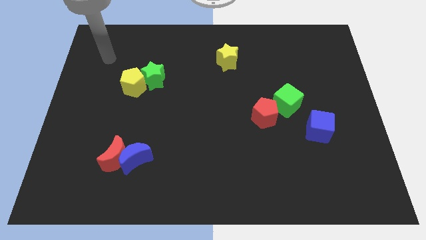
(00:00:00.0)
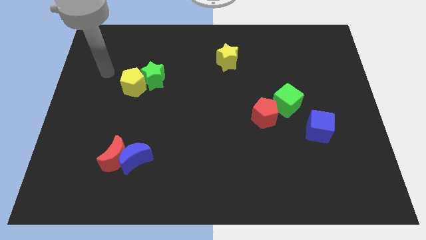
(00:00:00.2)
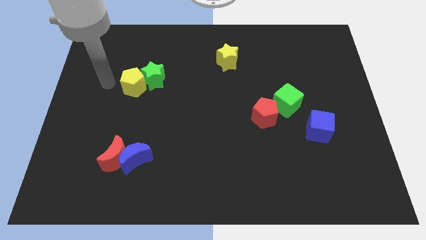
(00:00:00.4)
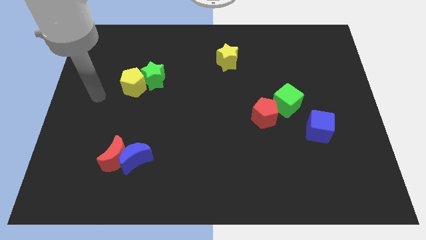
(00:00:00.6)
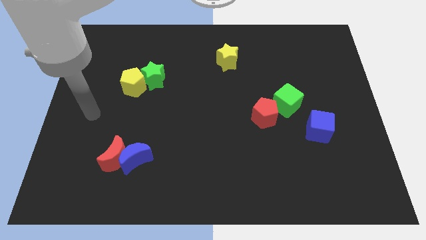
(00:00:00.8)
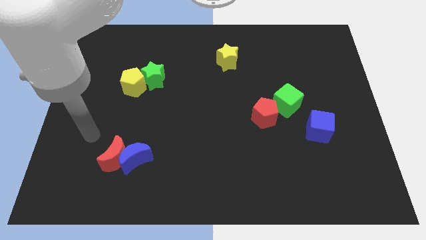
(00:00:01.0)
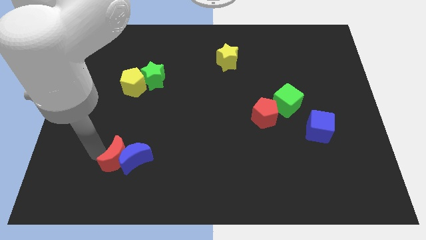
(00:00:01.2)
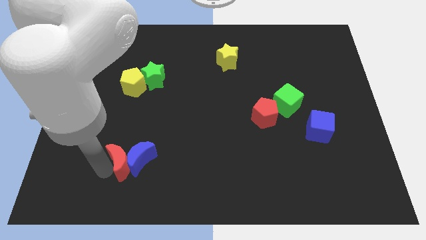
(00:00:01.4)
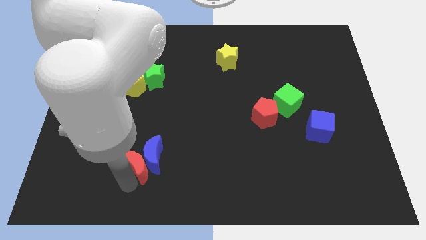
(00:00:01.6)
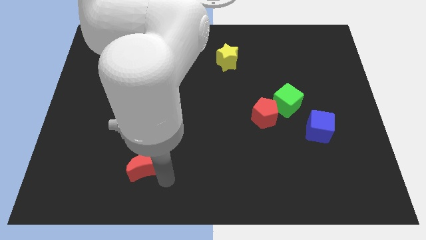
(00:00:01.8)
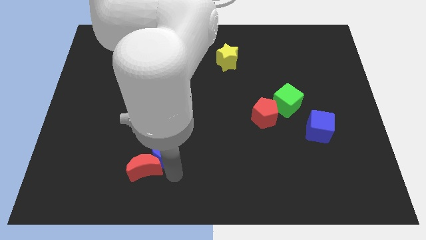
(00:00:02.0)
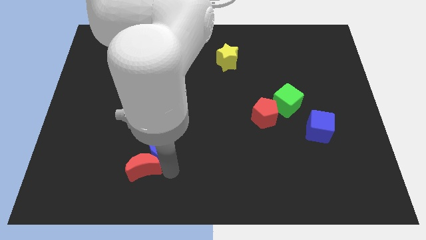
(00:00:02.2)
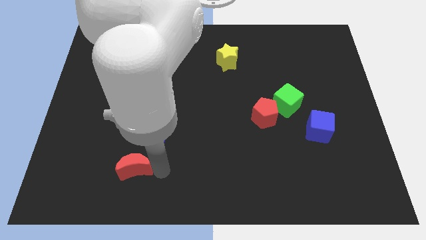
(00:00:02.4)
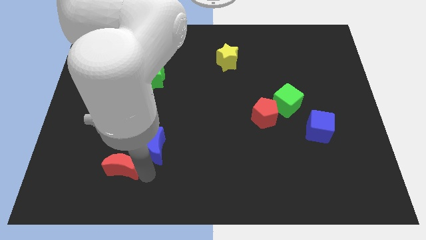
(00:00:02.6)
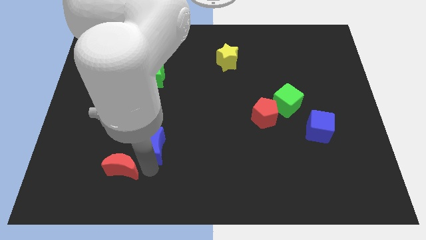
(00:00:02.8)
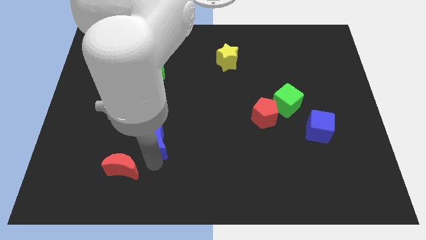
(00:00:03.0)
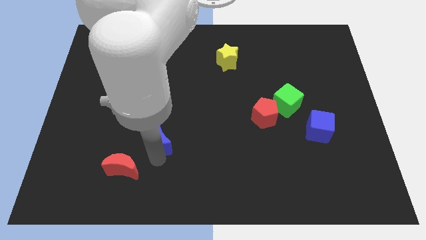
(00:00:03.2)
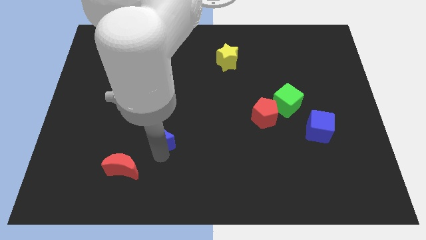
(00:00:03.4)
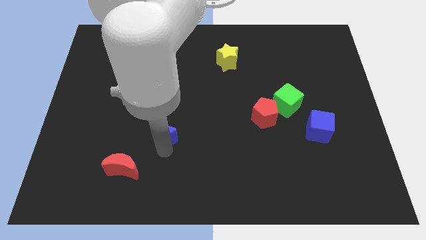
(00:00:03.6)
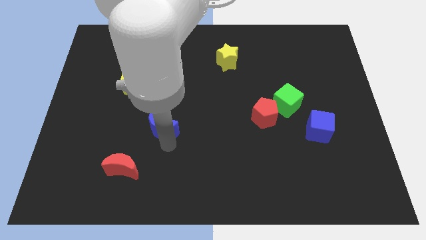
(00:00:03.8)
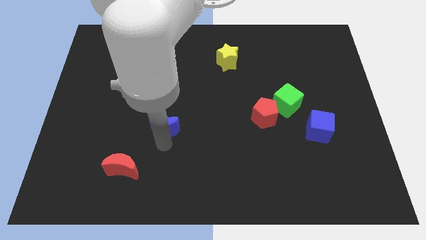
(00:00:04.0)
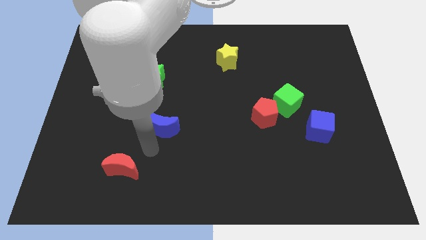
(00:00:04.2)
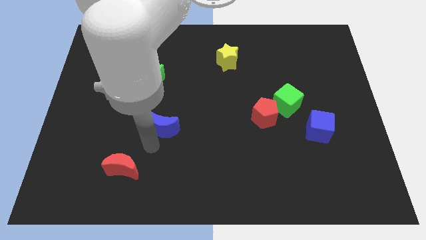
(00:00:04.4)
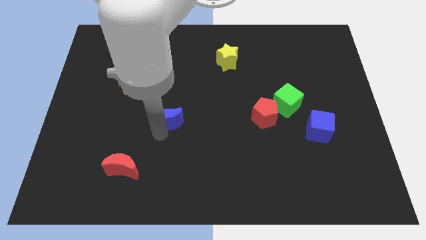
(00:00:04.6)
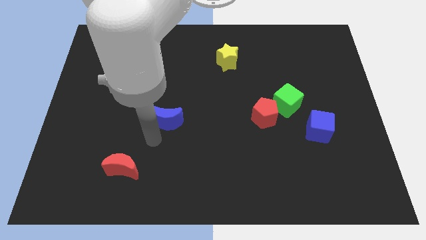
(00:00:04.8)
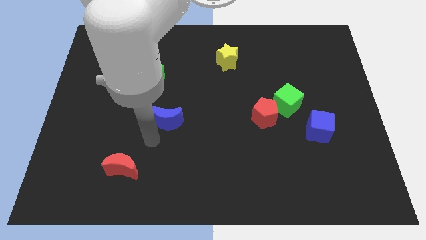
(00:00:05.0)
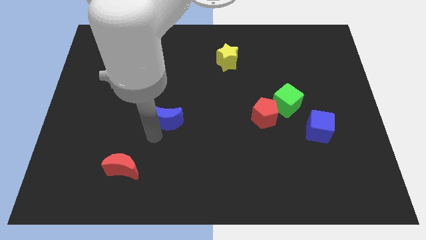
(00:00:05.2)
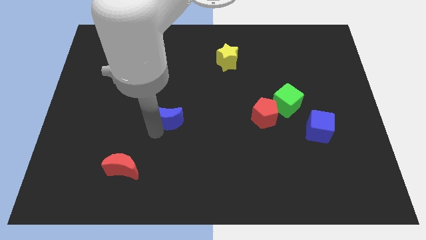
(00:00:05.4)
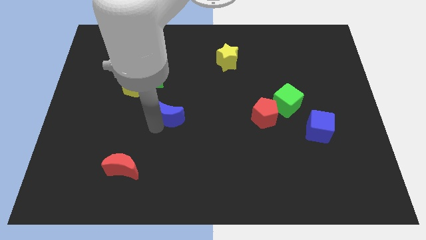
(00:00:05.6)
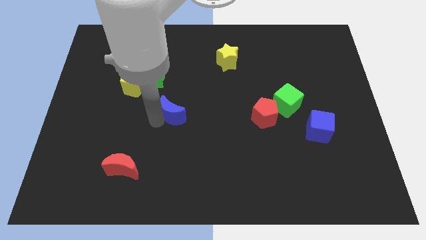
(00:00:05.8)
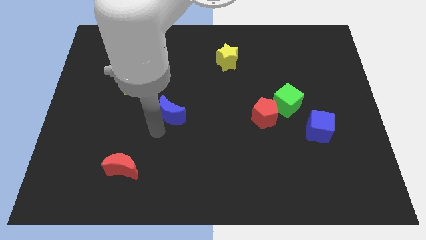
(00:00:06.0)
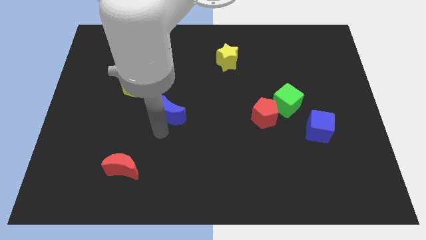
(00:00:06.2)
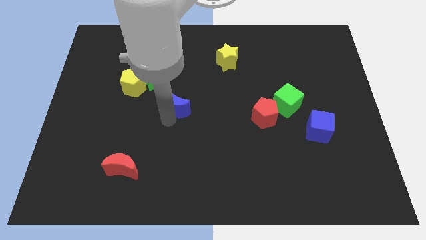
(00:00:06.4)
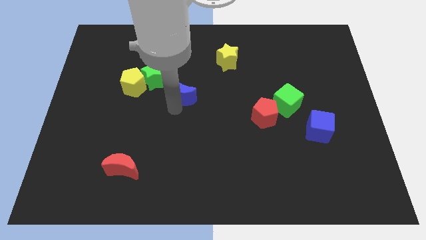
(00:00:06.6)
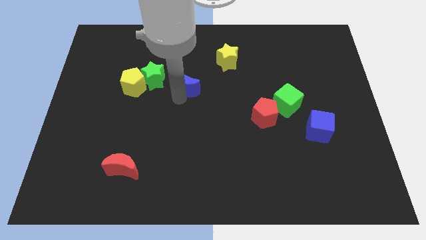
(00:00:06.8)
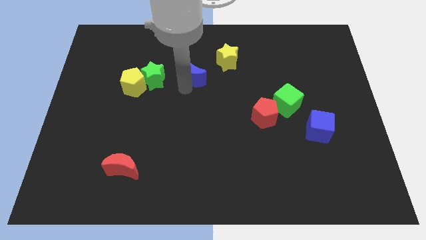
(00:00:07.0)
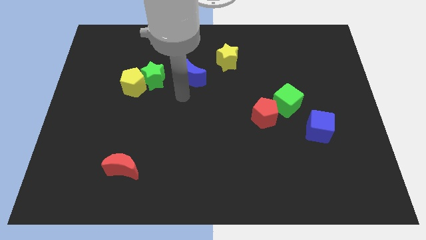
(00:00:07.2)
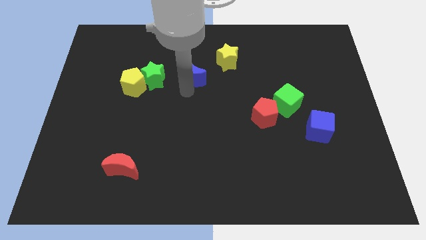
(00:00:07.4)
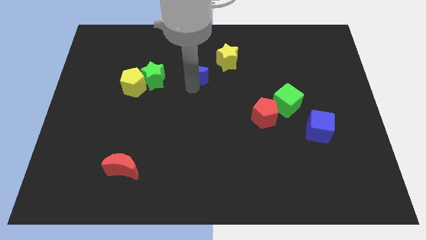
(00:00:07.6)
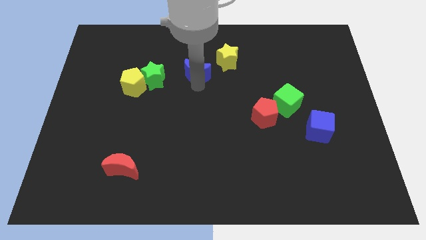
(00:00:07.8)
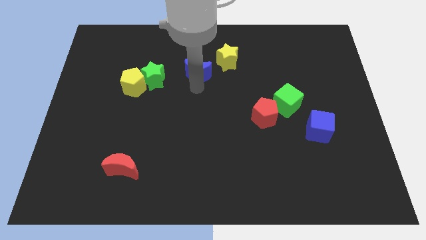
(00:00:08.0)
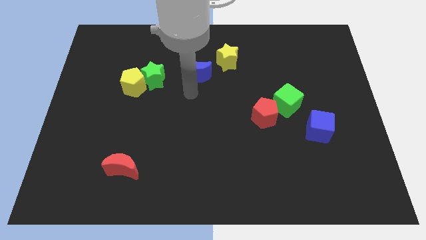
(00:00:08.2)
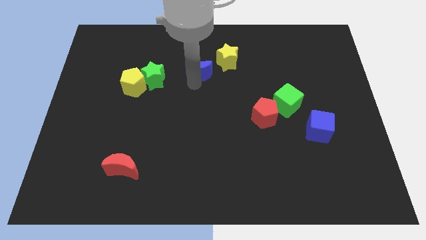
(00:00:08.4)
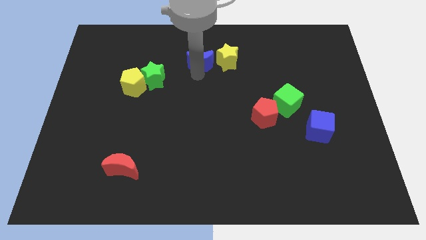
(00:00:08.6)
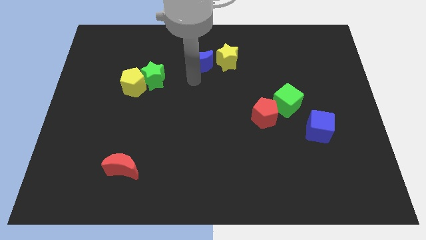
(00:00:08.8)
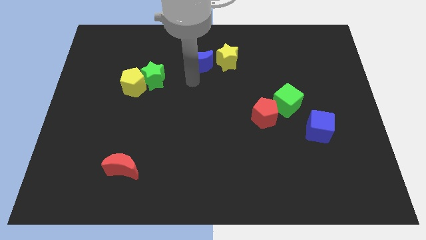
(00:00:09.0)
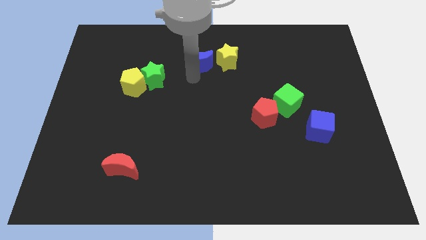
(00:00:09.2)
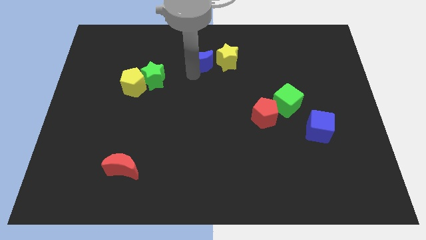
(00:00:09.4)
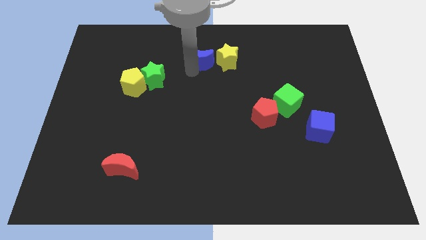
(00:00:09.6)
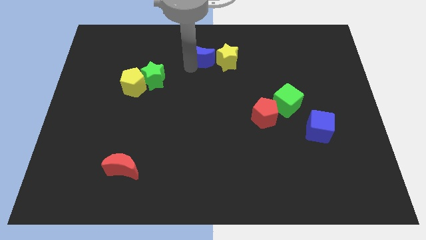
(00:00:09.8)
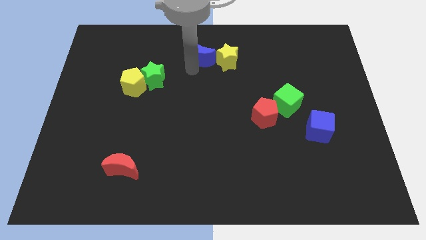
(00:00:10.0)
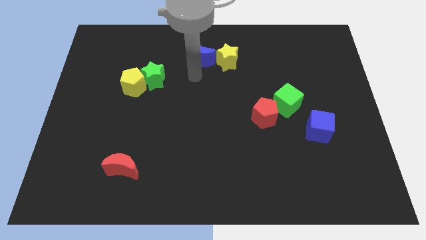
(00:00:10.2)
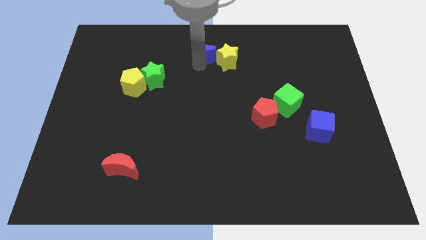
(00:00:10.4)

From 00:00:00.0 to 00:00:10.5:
push the blue moon to the top side

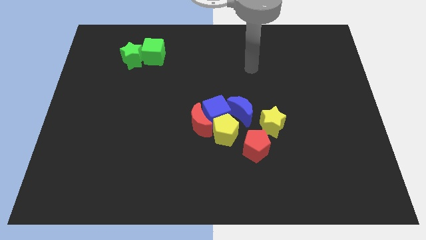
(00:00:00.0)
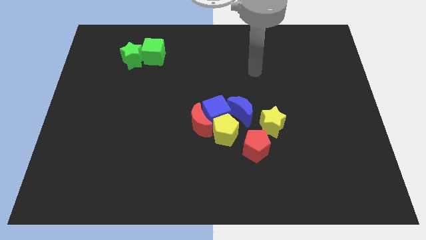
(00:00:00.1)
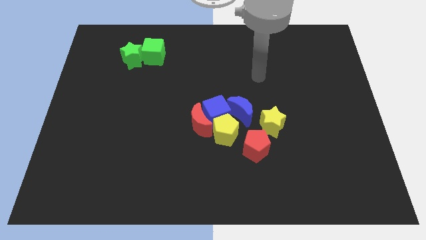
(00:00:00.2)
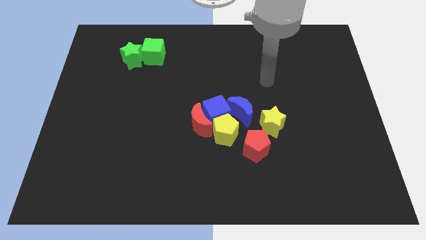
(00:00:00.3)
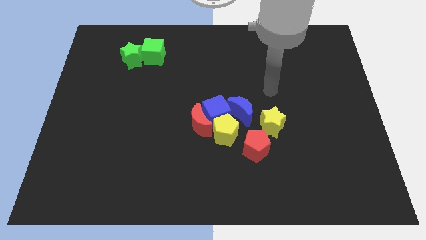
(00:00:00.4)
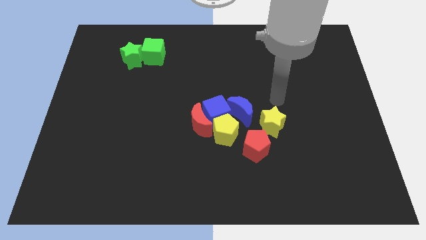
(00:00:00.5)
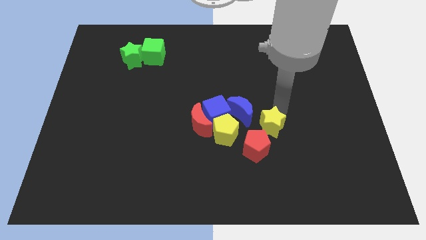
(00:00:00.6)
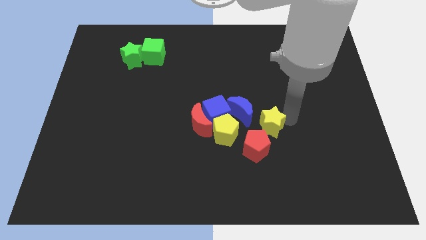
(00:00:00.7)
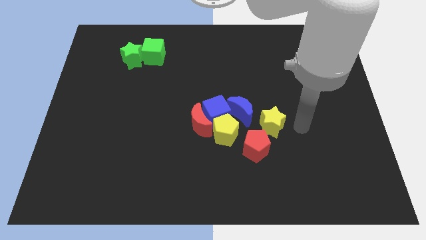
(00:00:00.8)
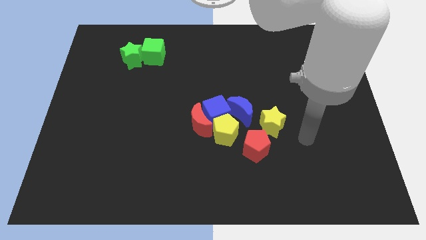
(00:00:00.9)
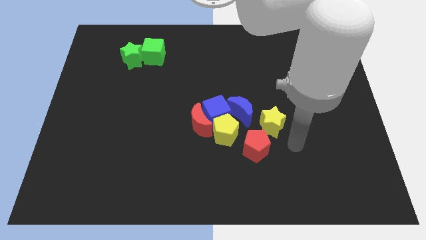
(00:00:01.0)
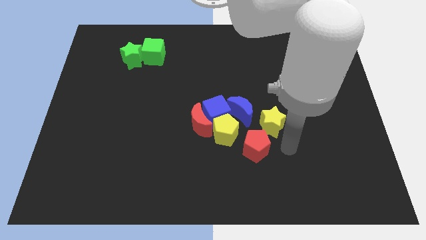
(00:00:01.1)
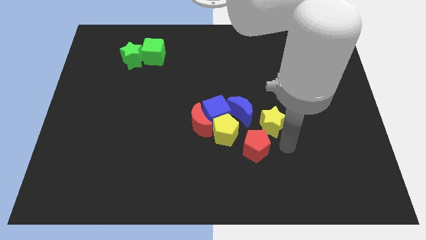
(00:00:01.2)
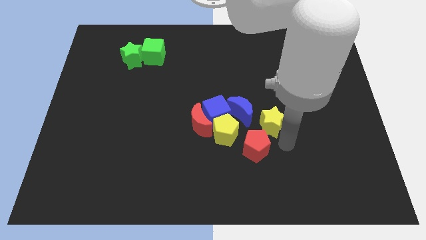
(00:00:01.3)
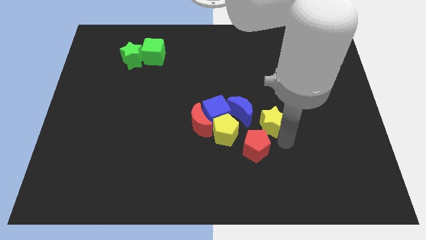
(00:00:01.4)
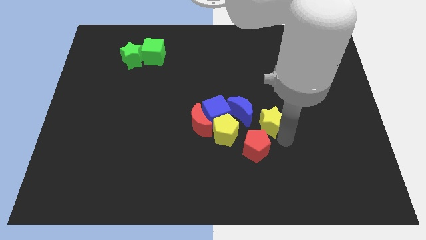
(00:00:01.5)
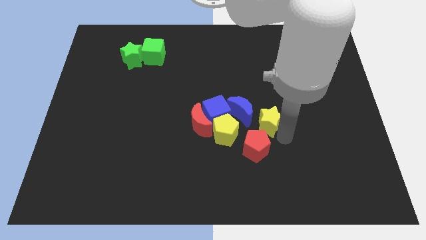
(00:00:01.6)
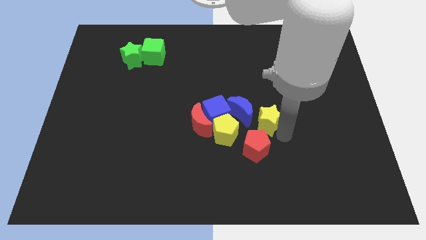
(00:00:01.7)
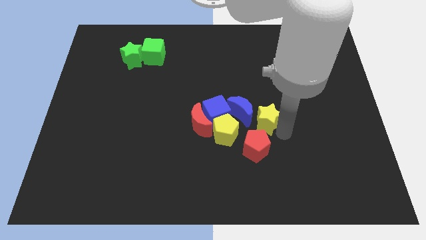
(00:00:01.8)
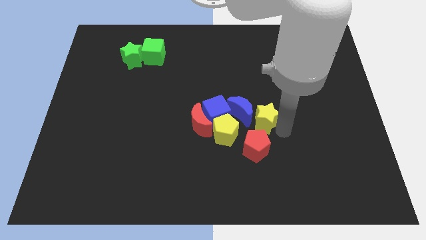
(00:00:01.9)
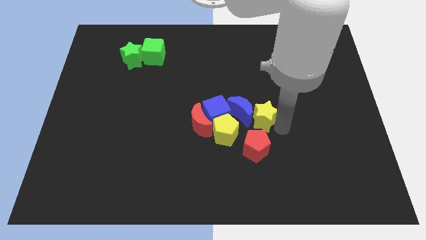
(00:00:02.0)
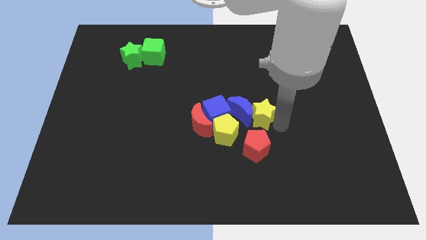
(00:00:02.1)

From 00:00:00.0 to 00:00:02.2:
put the yellow star to the center of the board
